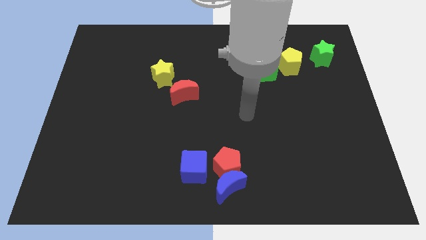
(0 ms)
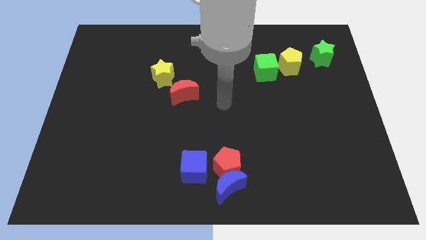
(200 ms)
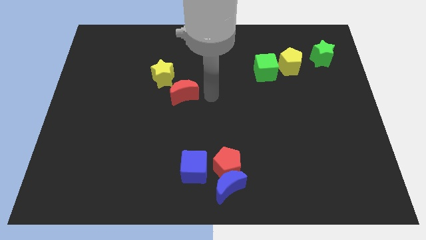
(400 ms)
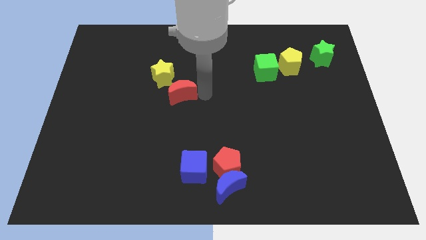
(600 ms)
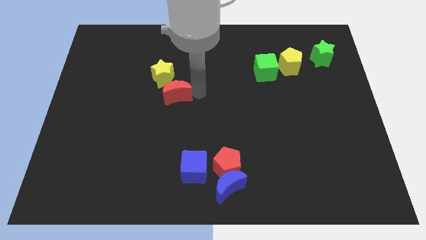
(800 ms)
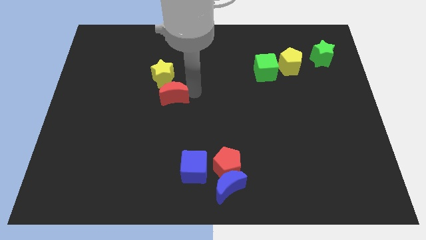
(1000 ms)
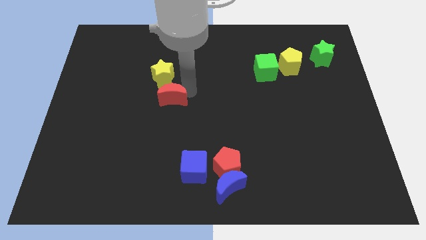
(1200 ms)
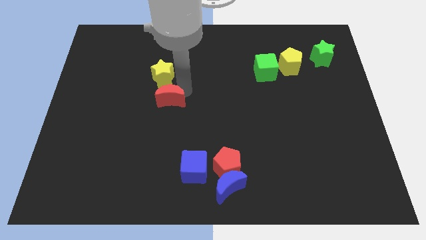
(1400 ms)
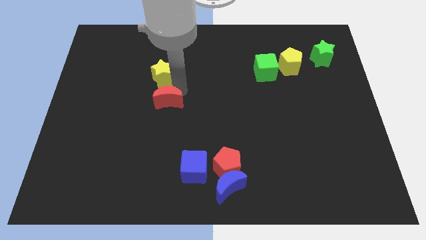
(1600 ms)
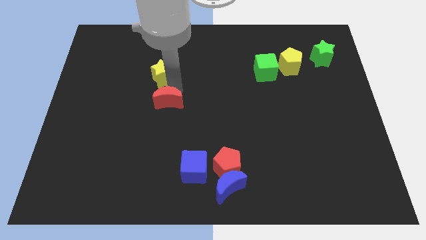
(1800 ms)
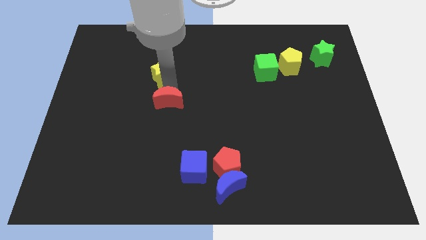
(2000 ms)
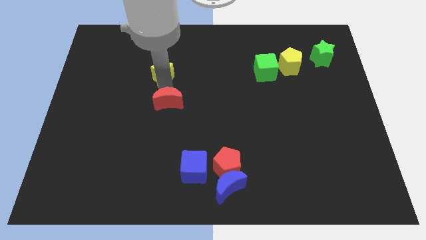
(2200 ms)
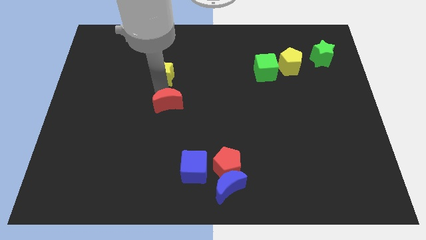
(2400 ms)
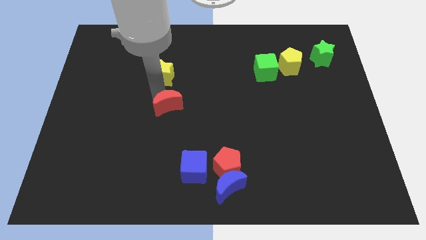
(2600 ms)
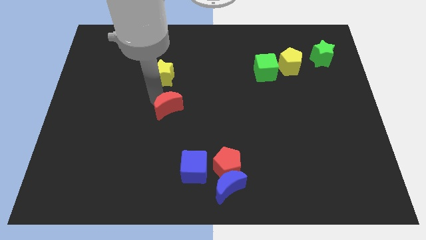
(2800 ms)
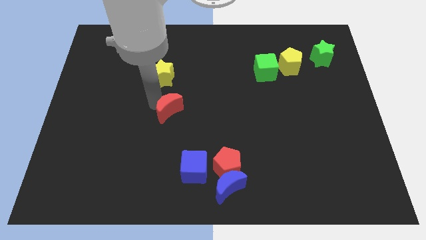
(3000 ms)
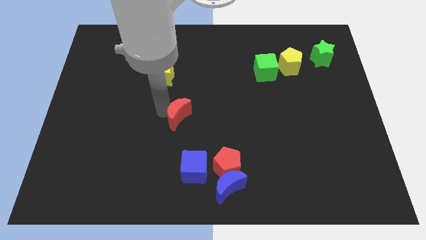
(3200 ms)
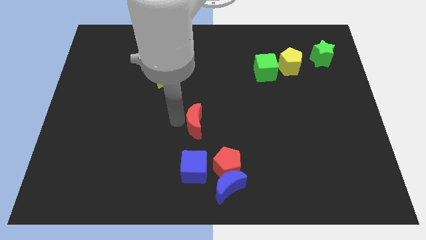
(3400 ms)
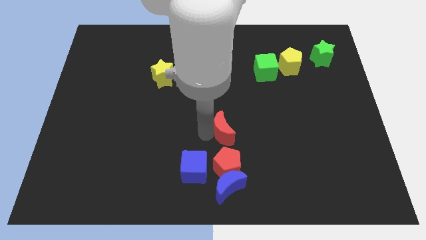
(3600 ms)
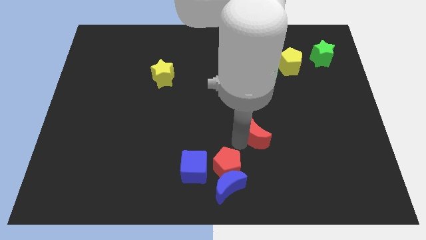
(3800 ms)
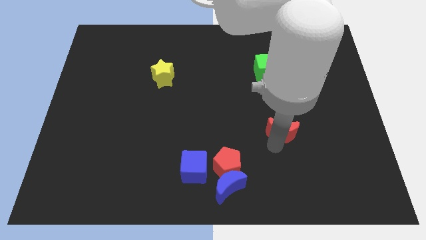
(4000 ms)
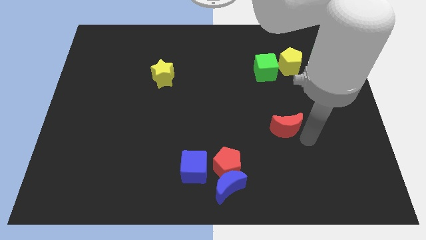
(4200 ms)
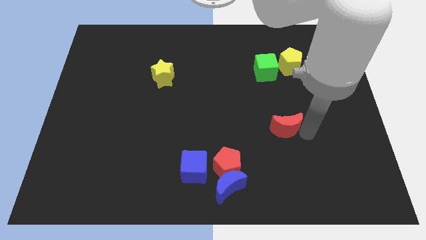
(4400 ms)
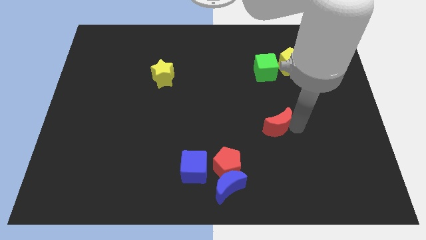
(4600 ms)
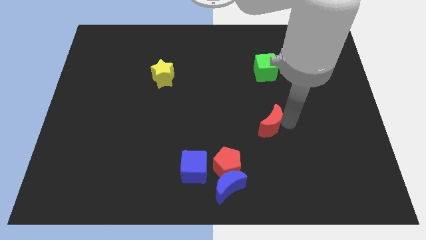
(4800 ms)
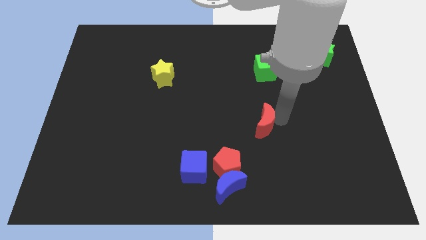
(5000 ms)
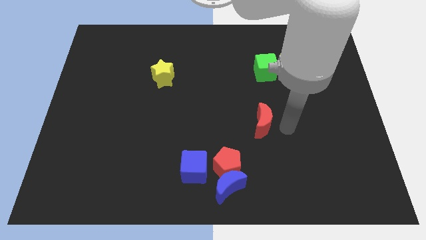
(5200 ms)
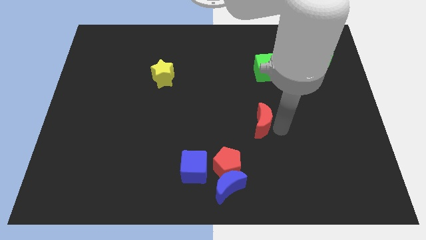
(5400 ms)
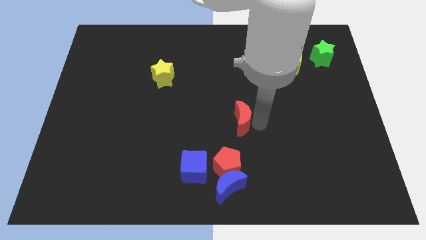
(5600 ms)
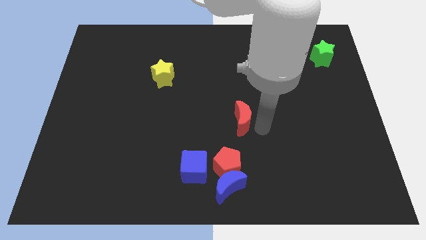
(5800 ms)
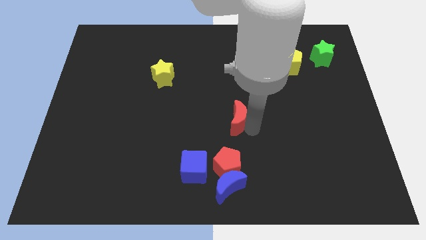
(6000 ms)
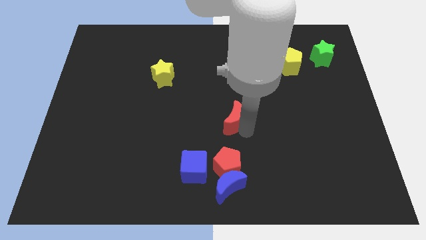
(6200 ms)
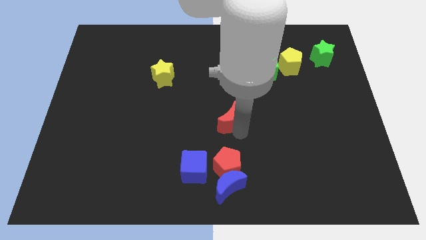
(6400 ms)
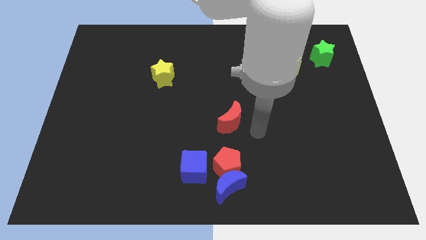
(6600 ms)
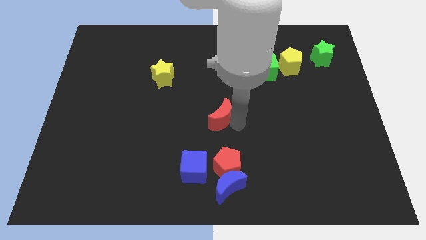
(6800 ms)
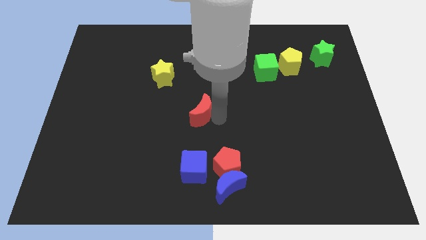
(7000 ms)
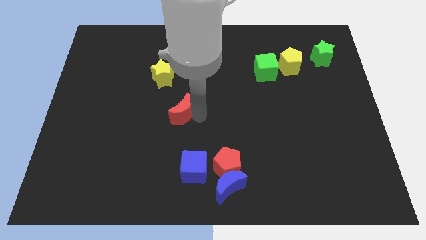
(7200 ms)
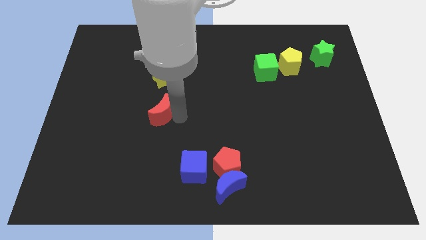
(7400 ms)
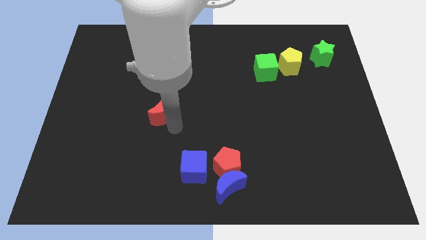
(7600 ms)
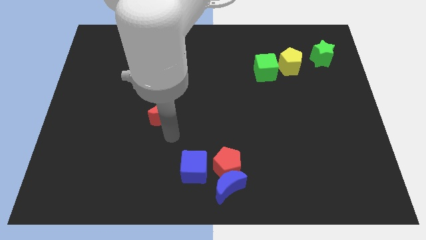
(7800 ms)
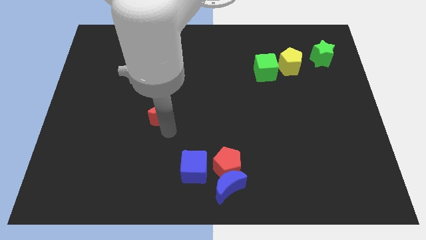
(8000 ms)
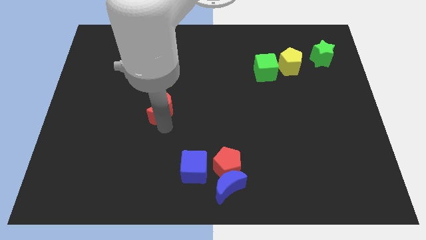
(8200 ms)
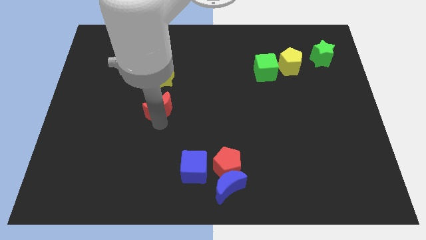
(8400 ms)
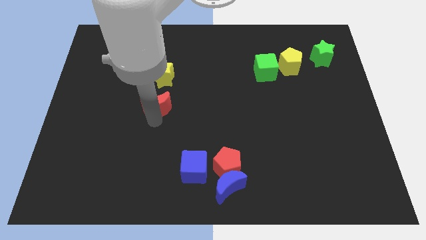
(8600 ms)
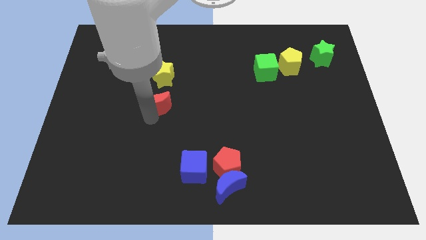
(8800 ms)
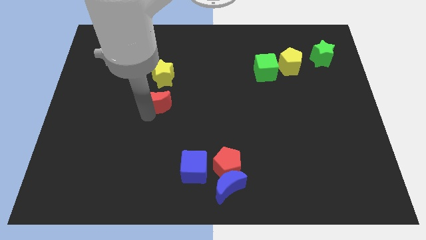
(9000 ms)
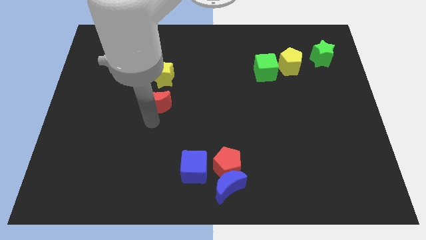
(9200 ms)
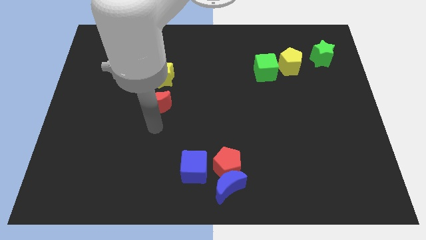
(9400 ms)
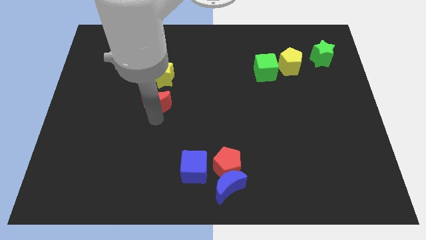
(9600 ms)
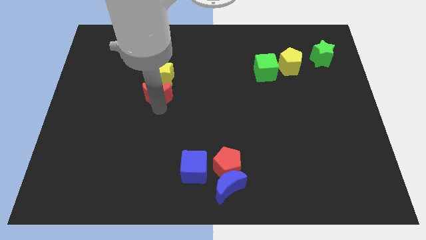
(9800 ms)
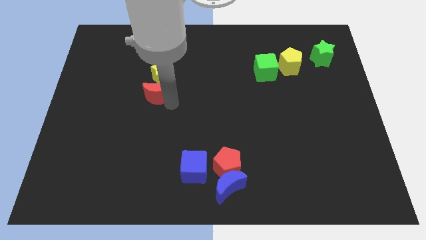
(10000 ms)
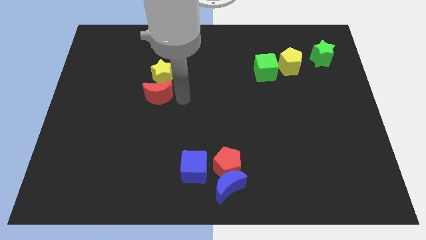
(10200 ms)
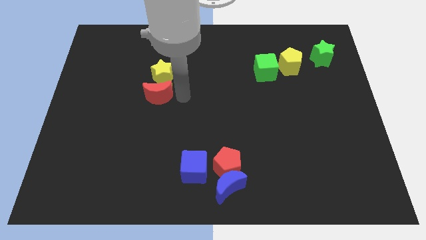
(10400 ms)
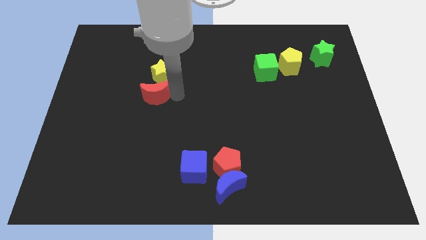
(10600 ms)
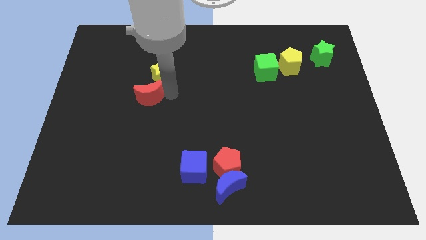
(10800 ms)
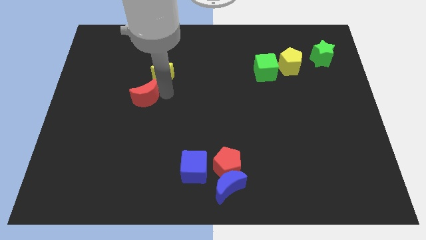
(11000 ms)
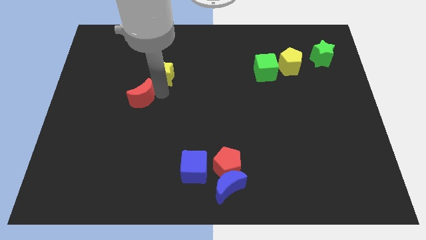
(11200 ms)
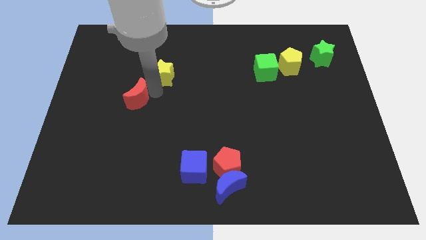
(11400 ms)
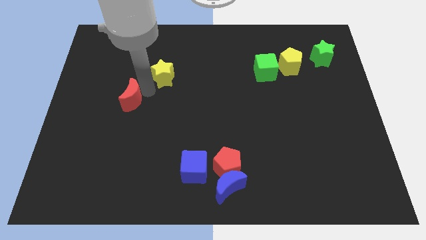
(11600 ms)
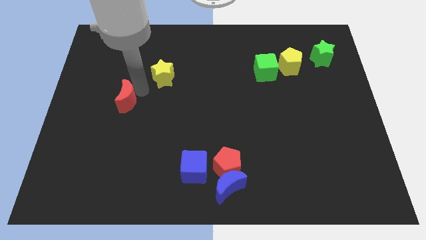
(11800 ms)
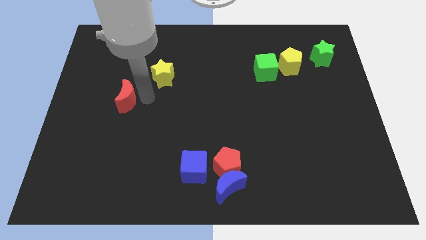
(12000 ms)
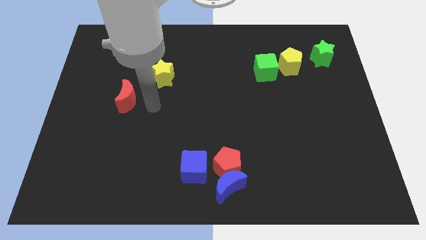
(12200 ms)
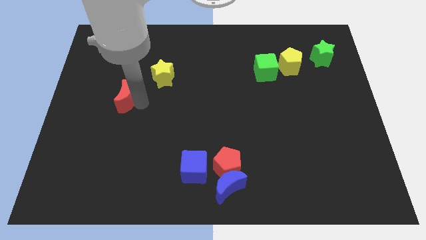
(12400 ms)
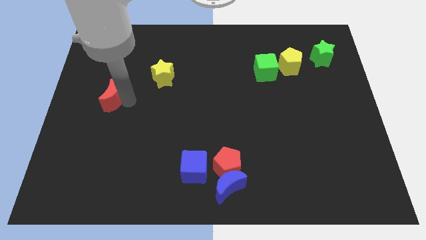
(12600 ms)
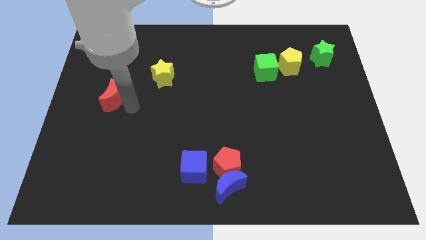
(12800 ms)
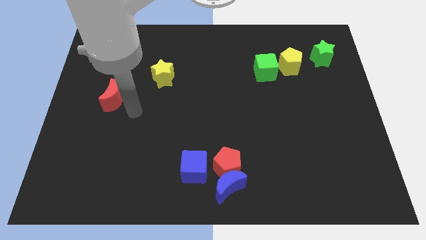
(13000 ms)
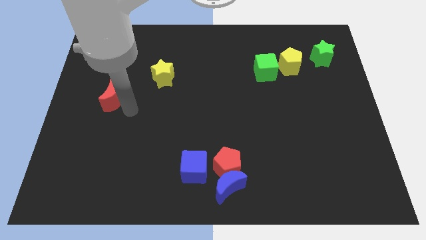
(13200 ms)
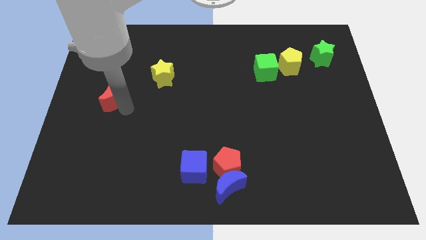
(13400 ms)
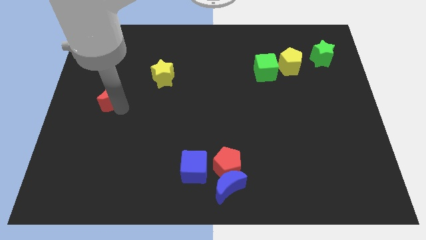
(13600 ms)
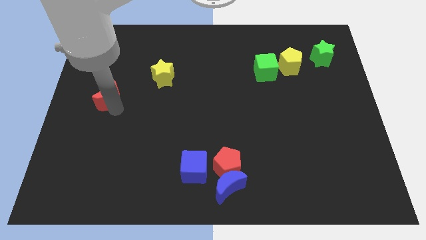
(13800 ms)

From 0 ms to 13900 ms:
slide the red moon to the left side

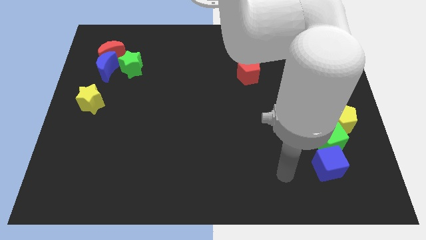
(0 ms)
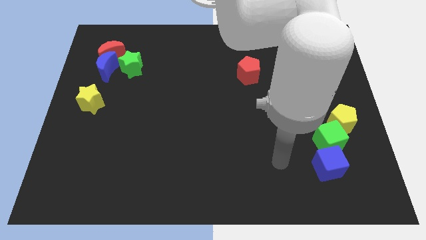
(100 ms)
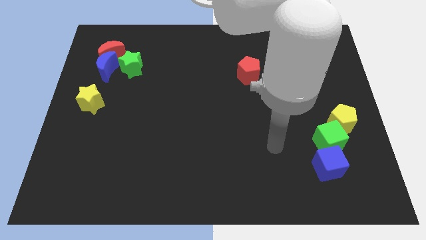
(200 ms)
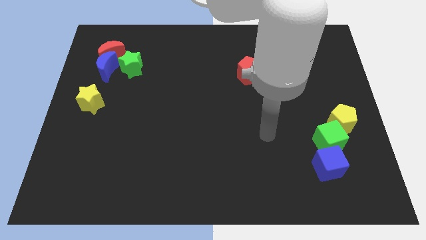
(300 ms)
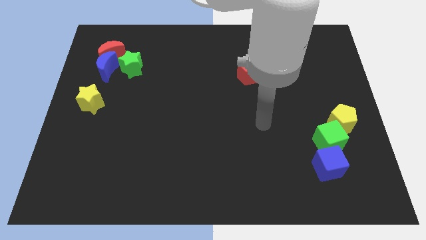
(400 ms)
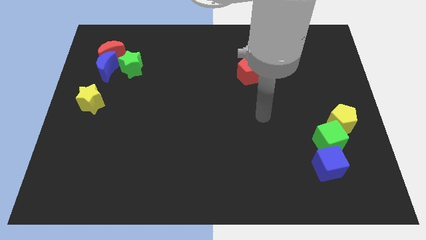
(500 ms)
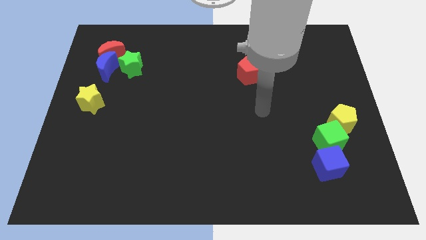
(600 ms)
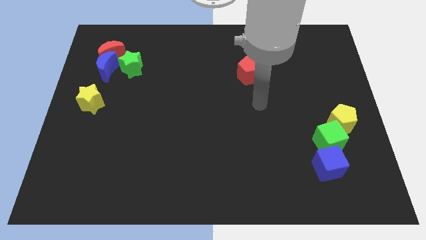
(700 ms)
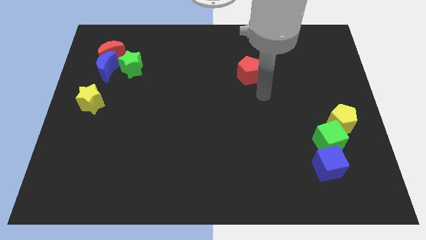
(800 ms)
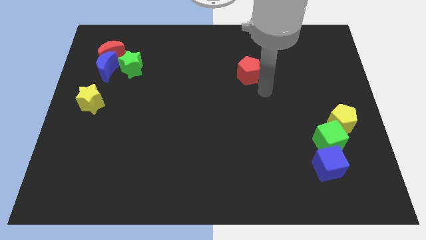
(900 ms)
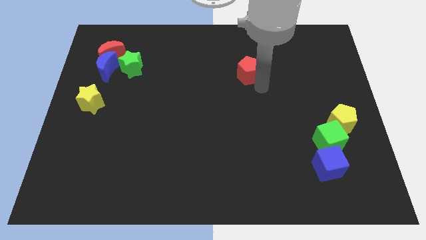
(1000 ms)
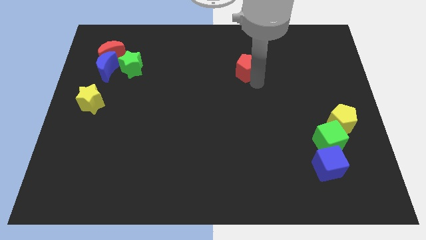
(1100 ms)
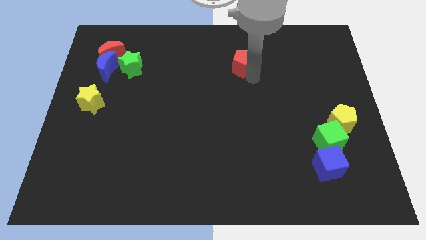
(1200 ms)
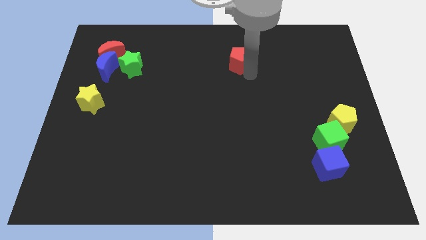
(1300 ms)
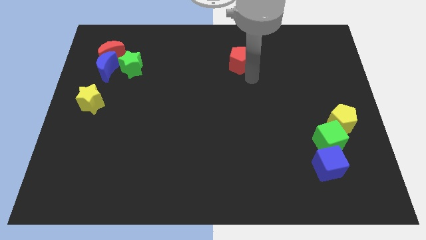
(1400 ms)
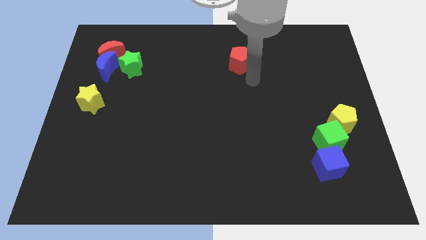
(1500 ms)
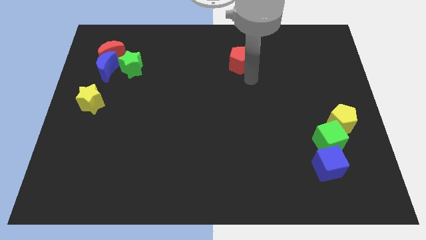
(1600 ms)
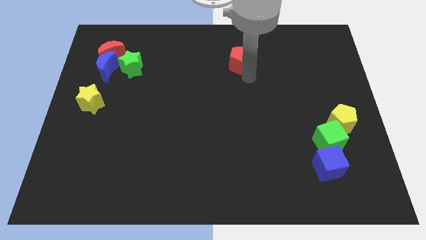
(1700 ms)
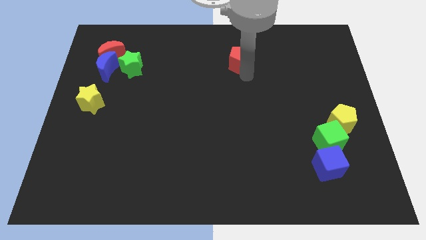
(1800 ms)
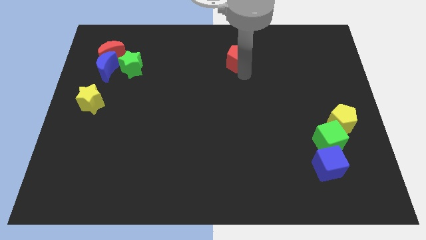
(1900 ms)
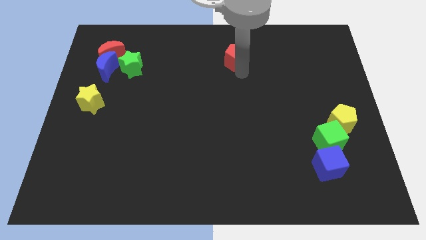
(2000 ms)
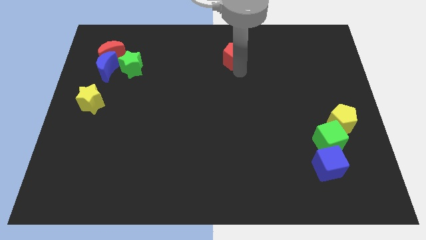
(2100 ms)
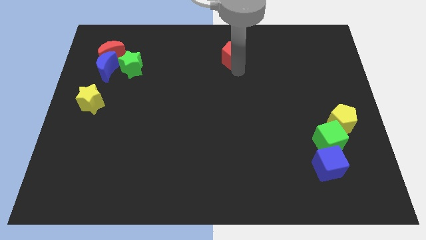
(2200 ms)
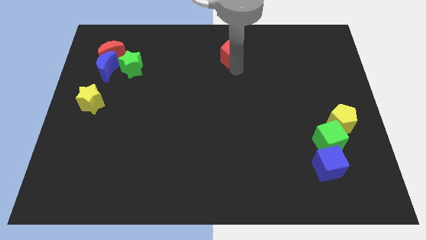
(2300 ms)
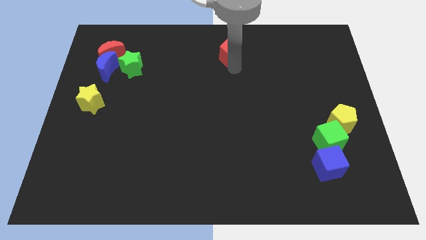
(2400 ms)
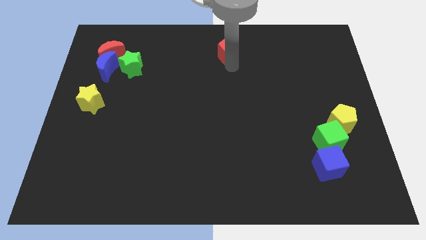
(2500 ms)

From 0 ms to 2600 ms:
put the red pentagon to the top
